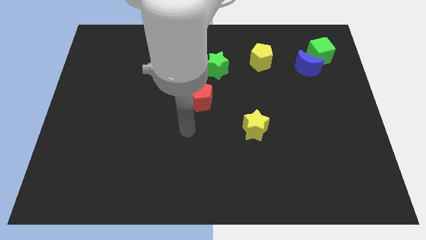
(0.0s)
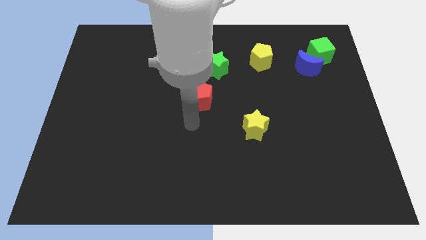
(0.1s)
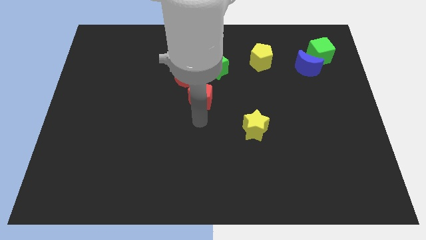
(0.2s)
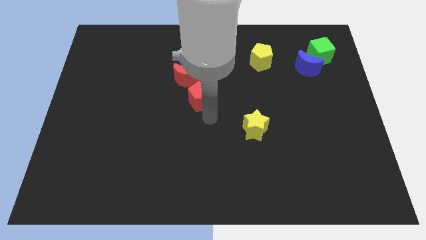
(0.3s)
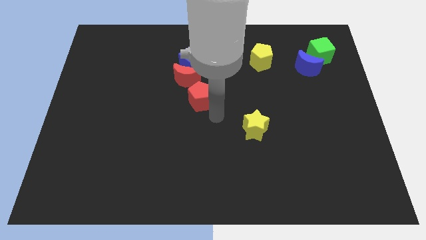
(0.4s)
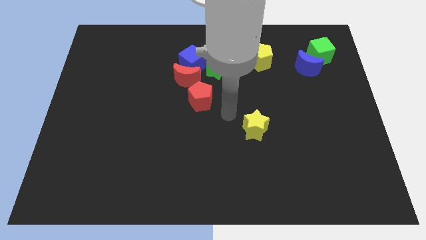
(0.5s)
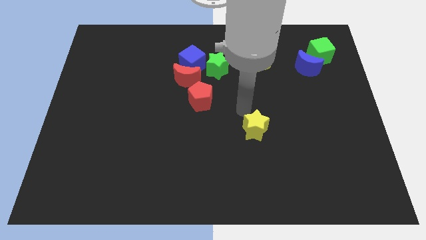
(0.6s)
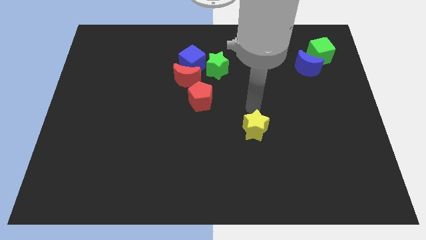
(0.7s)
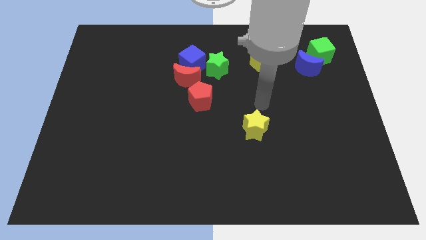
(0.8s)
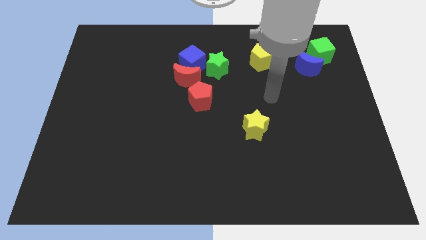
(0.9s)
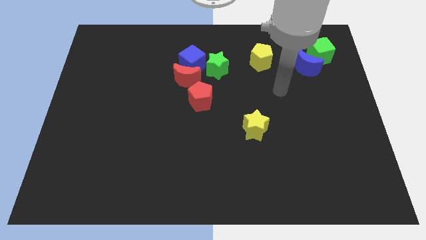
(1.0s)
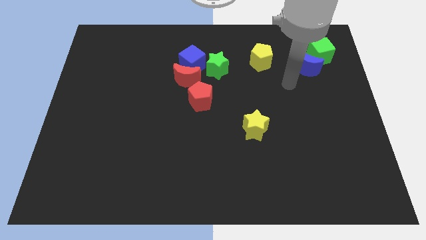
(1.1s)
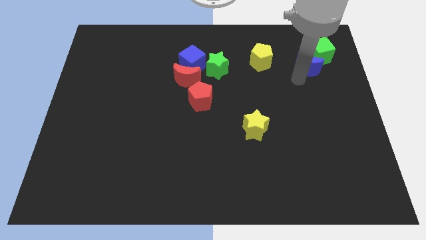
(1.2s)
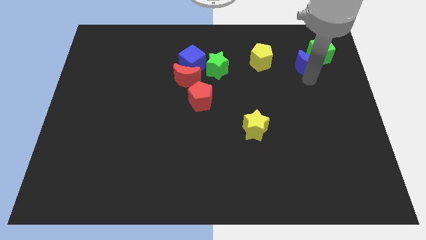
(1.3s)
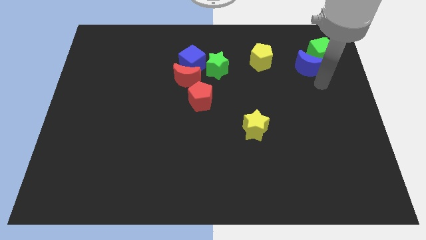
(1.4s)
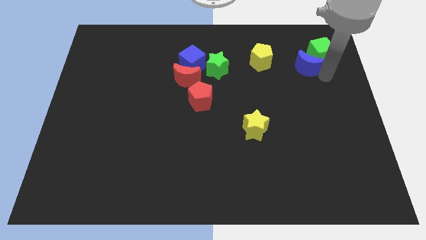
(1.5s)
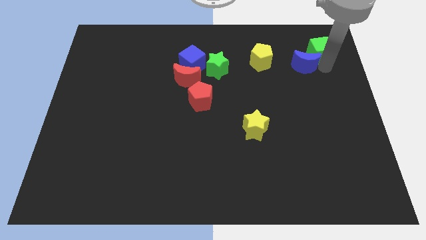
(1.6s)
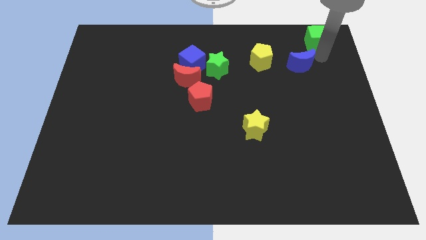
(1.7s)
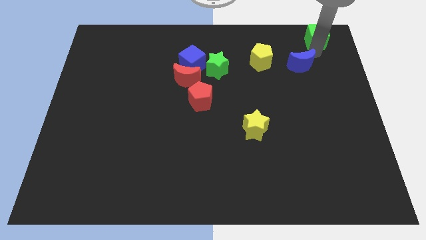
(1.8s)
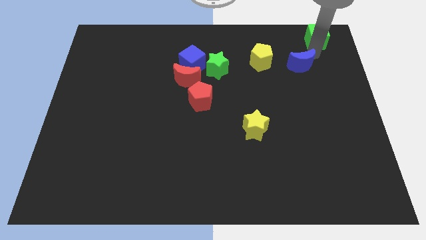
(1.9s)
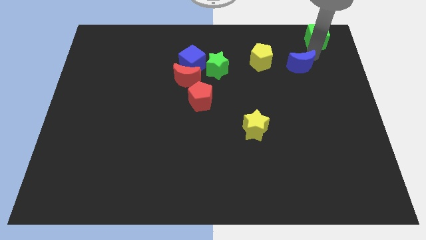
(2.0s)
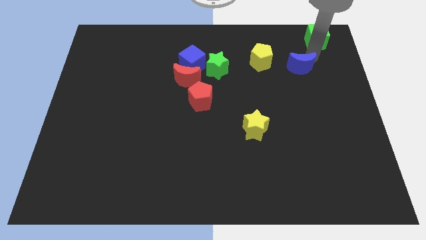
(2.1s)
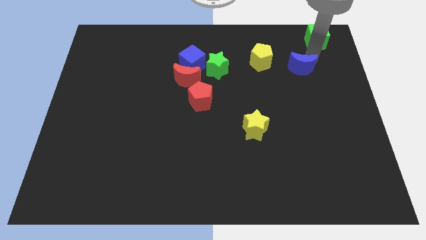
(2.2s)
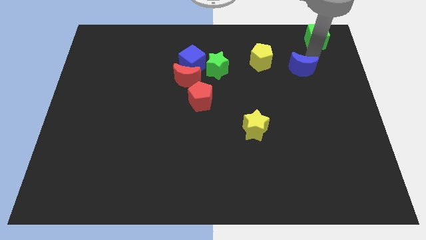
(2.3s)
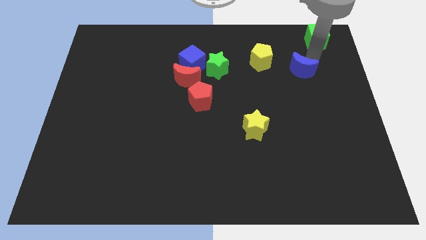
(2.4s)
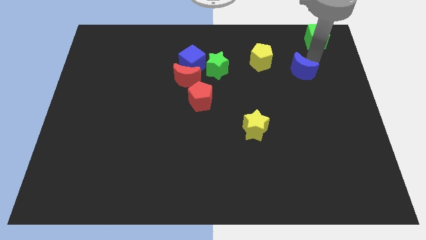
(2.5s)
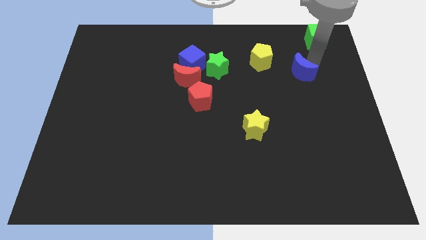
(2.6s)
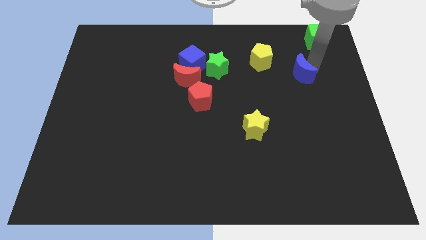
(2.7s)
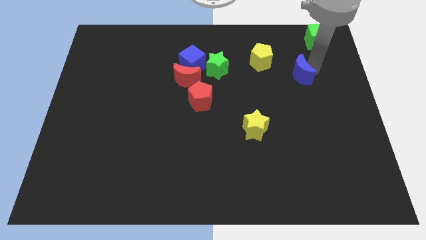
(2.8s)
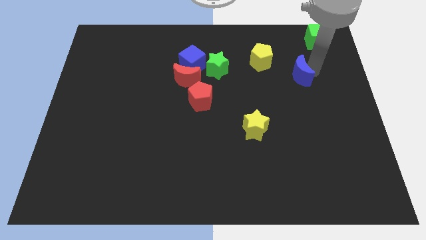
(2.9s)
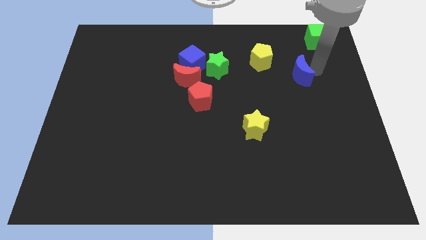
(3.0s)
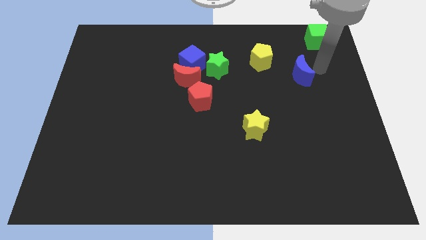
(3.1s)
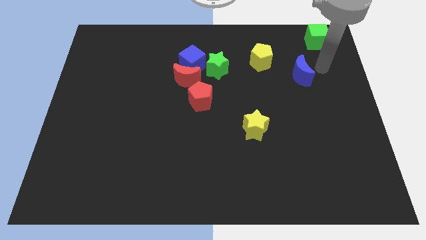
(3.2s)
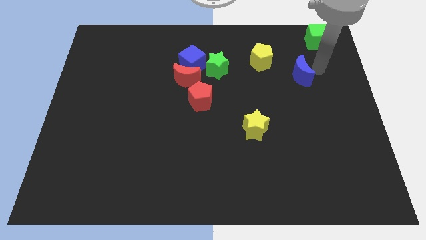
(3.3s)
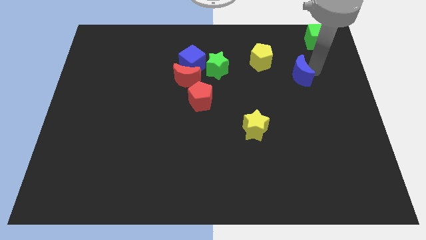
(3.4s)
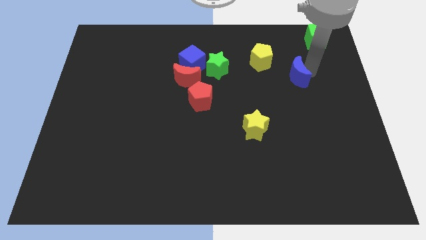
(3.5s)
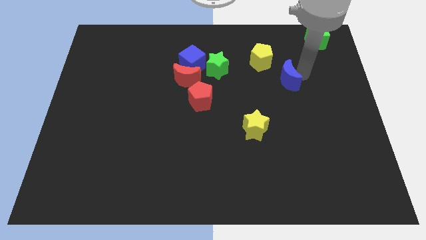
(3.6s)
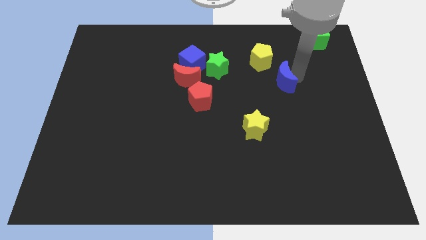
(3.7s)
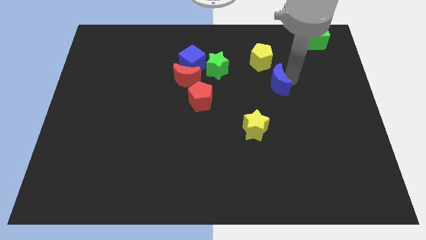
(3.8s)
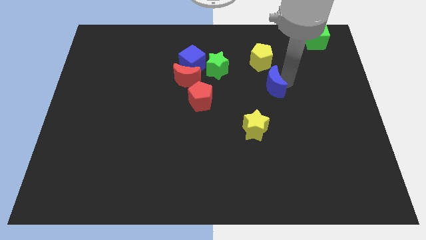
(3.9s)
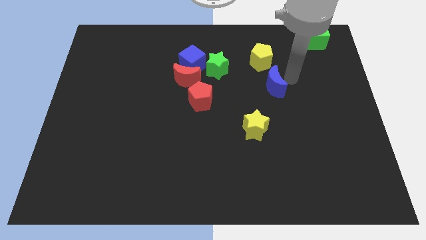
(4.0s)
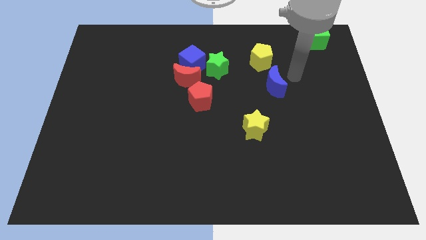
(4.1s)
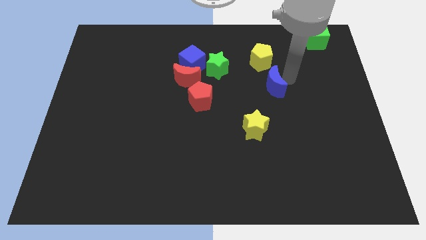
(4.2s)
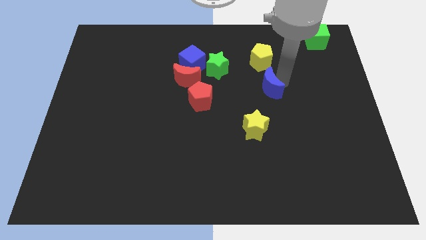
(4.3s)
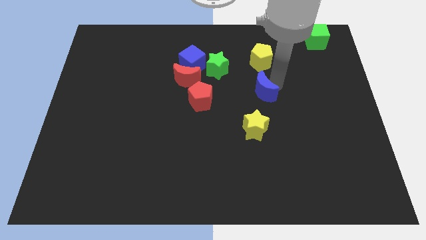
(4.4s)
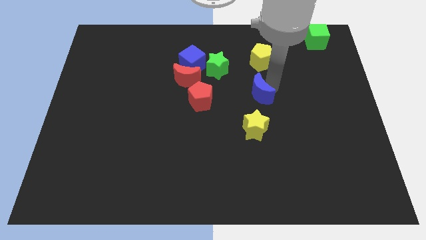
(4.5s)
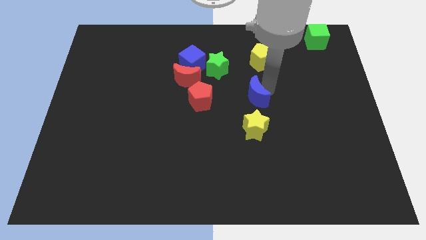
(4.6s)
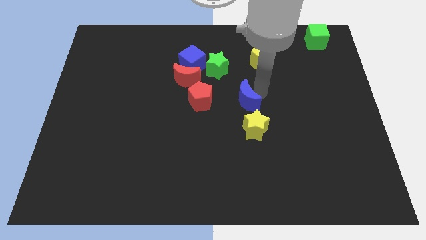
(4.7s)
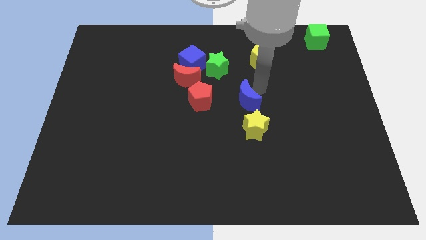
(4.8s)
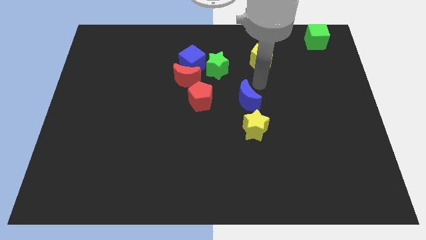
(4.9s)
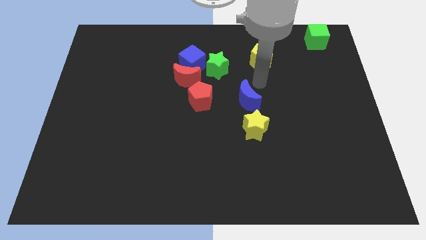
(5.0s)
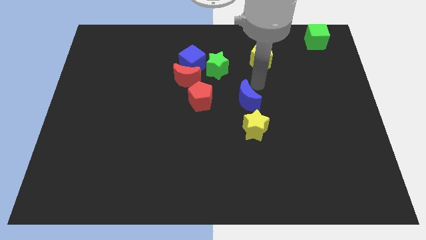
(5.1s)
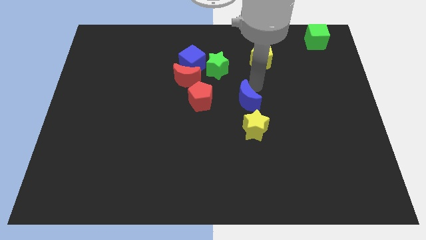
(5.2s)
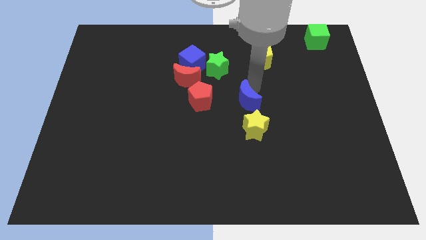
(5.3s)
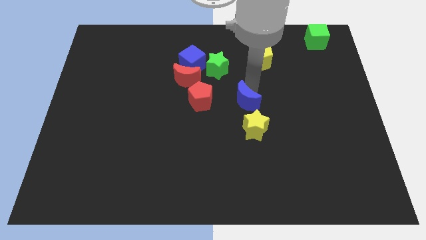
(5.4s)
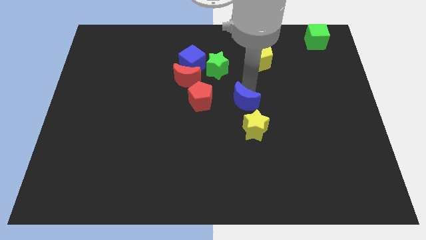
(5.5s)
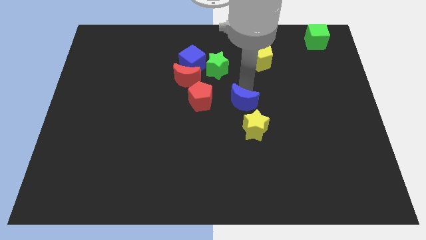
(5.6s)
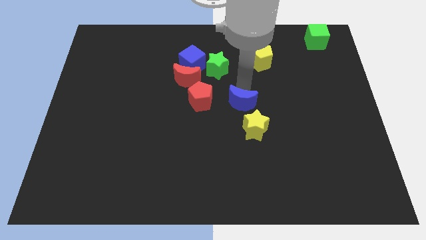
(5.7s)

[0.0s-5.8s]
slide the blue moon downwards and left

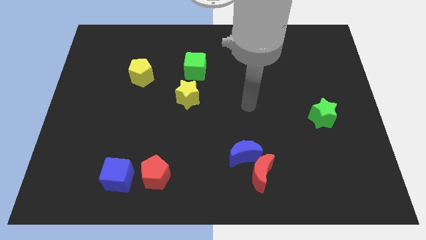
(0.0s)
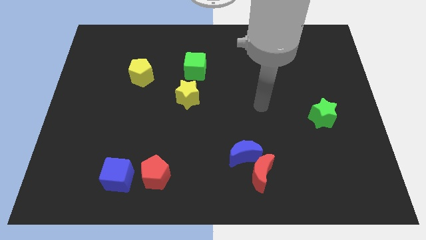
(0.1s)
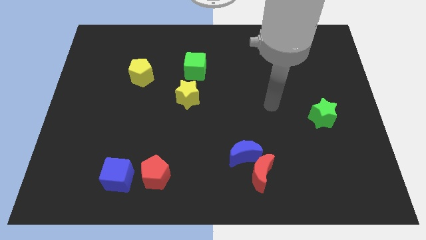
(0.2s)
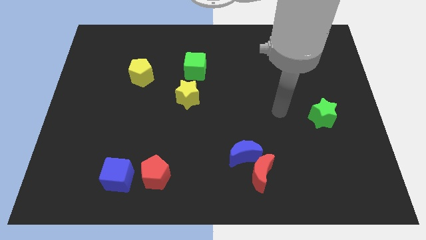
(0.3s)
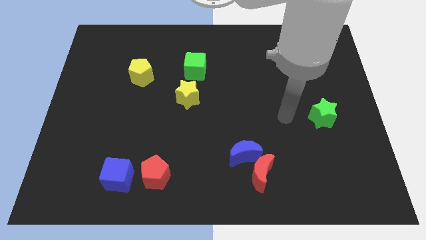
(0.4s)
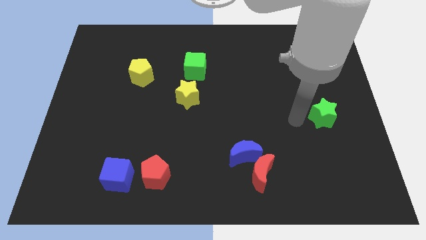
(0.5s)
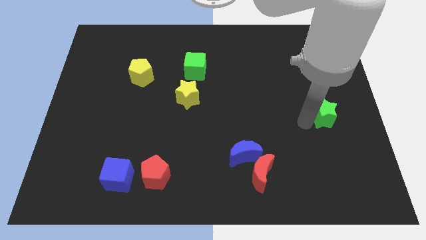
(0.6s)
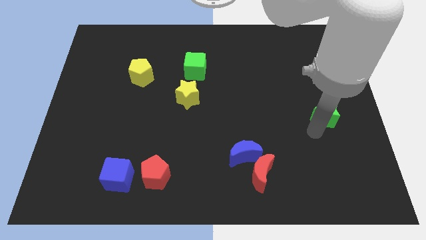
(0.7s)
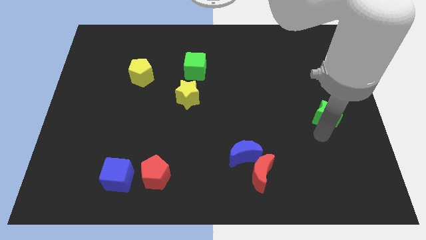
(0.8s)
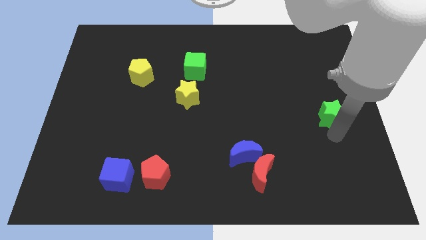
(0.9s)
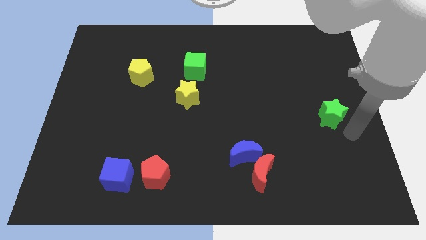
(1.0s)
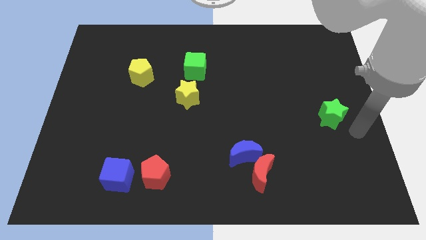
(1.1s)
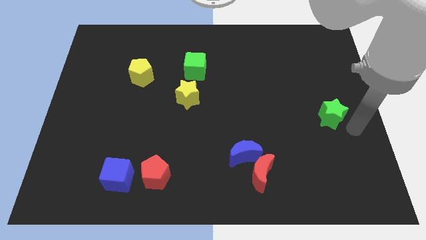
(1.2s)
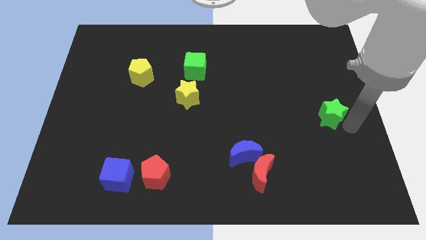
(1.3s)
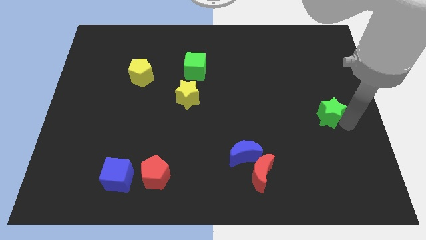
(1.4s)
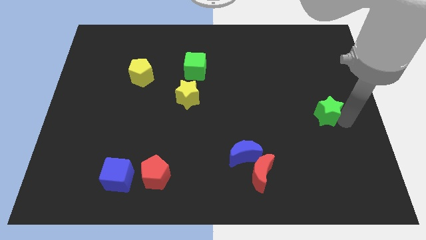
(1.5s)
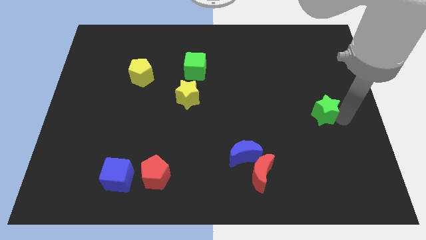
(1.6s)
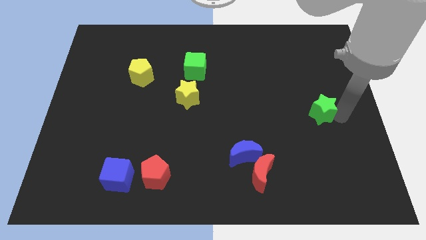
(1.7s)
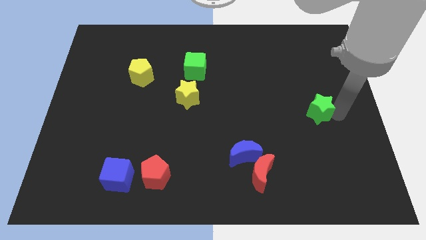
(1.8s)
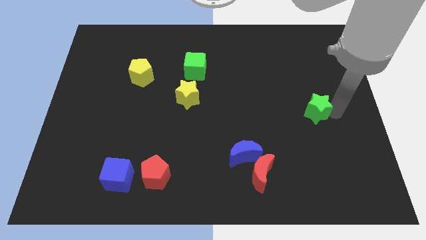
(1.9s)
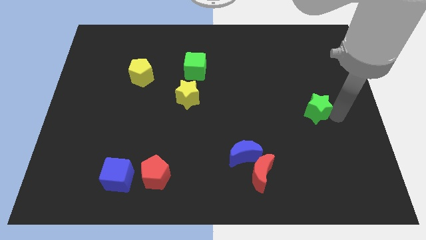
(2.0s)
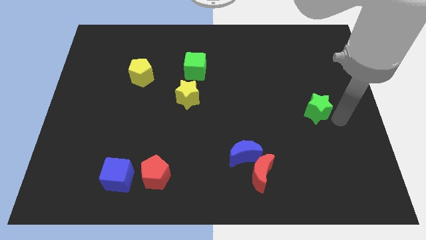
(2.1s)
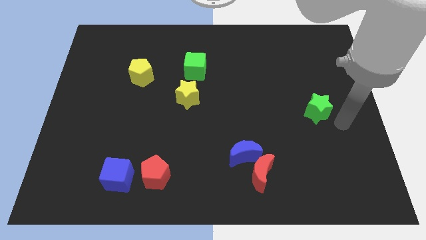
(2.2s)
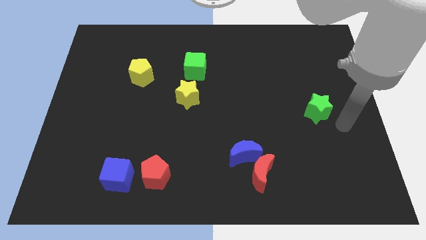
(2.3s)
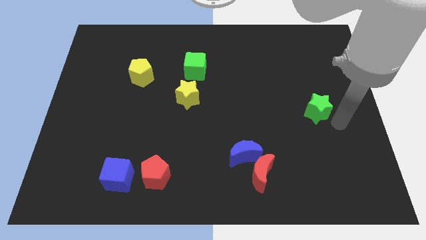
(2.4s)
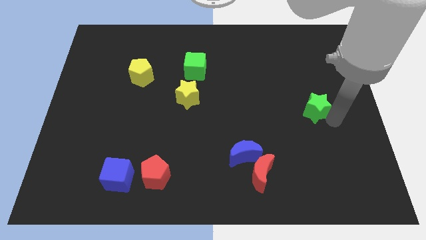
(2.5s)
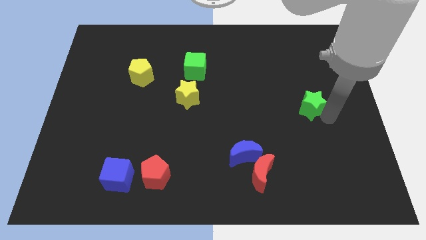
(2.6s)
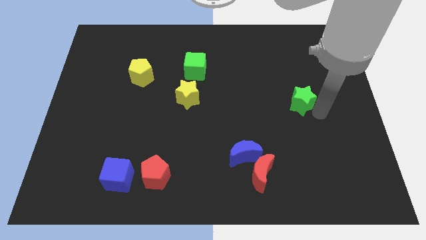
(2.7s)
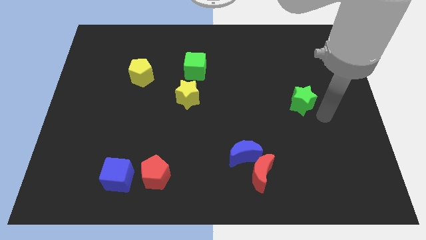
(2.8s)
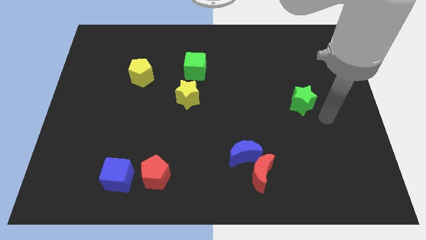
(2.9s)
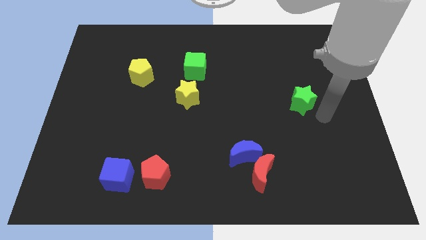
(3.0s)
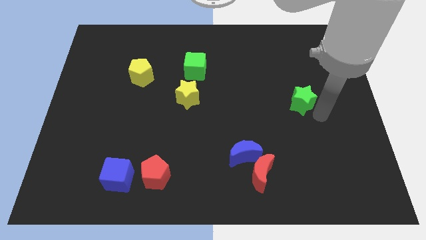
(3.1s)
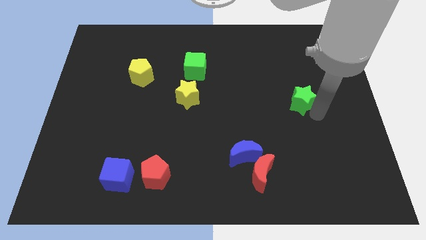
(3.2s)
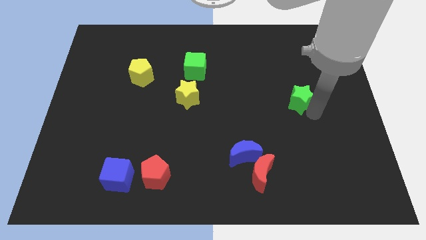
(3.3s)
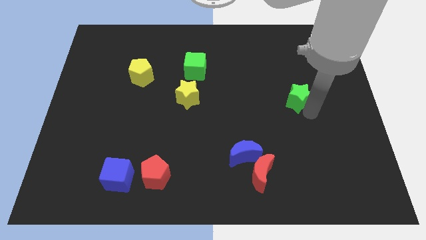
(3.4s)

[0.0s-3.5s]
slightly push the green star upwards and then left
